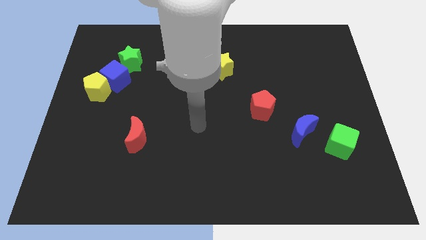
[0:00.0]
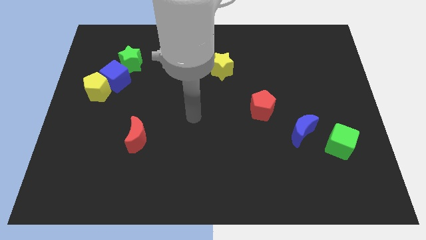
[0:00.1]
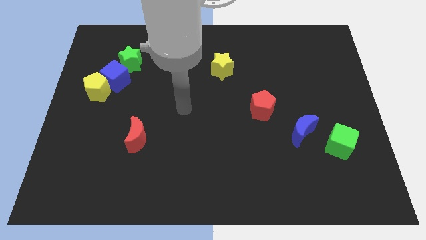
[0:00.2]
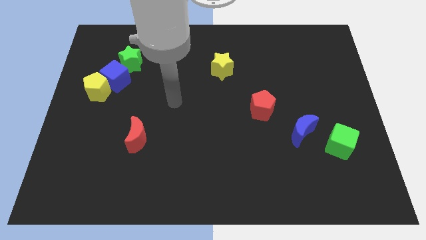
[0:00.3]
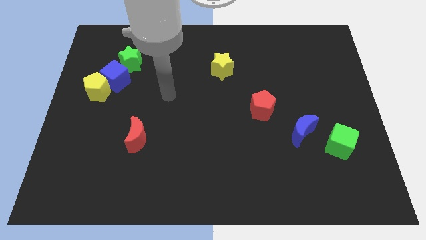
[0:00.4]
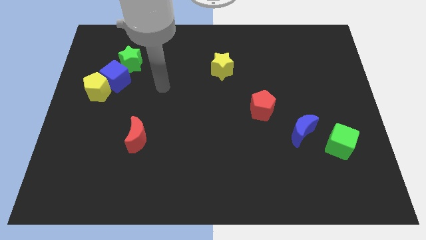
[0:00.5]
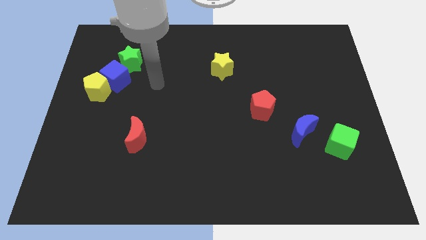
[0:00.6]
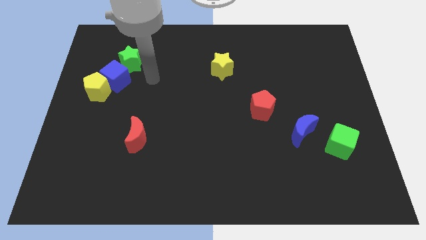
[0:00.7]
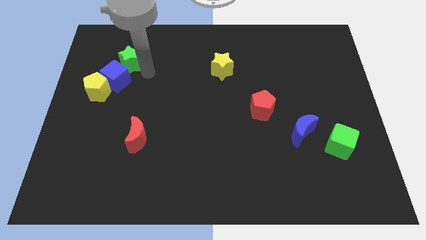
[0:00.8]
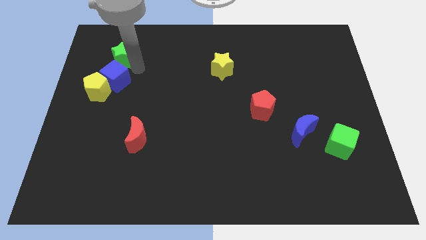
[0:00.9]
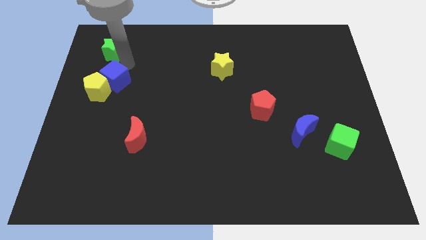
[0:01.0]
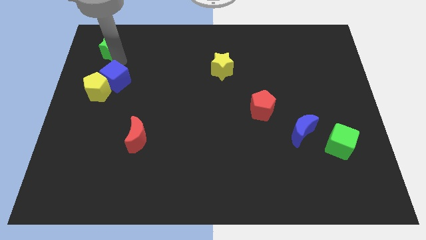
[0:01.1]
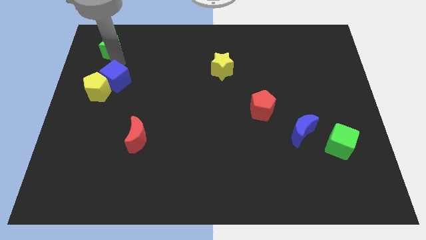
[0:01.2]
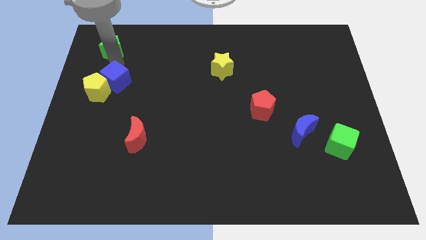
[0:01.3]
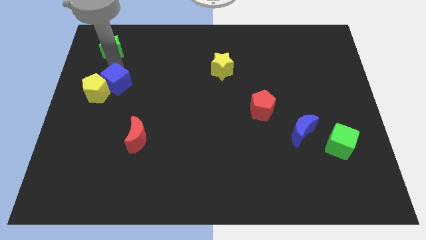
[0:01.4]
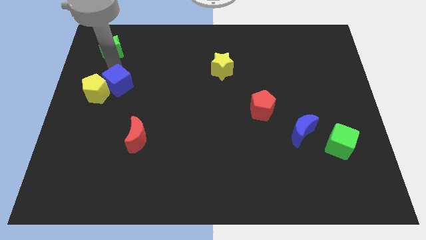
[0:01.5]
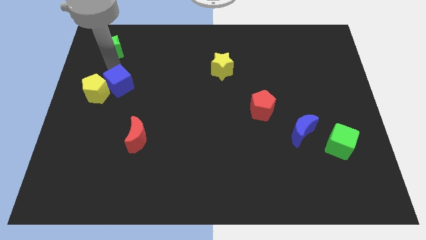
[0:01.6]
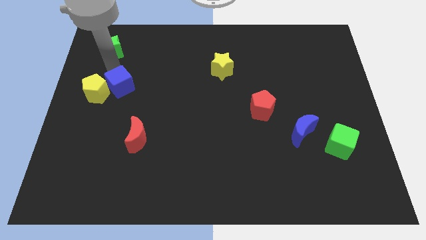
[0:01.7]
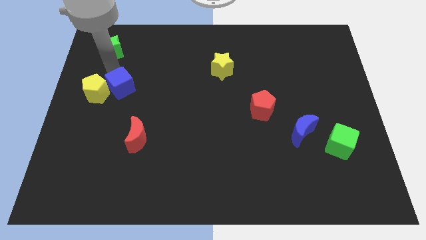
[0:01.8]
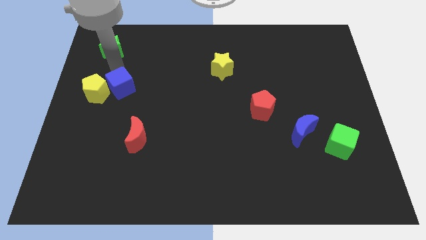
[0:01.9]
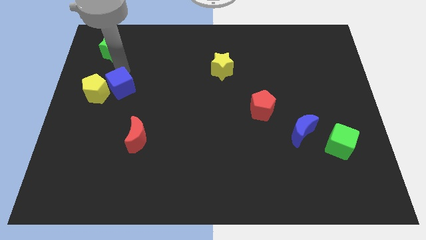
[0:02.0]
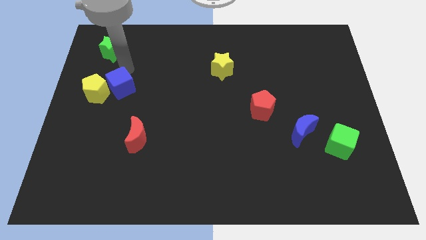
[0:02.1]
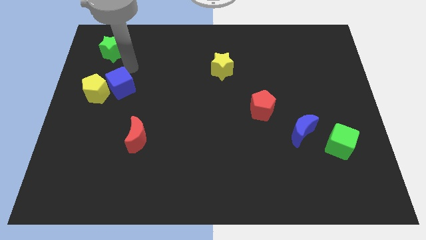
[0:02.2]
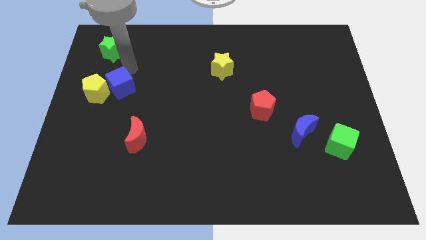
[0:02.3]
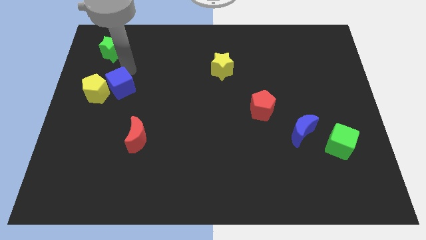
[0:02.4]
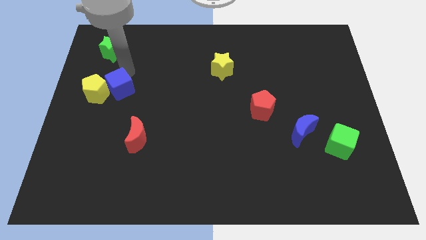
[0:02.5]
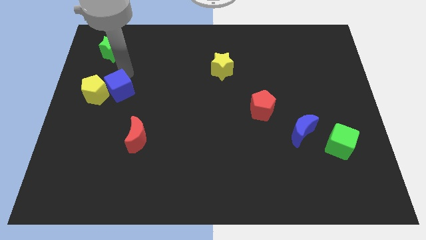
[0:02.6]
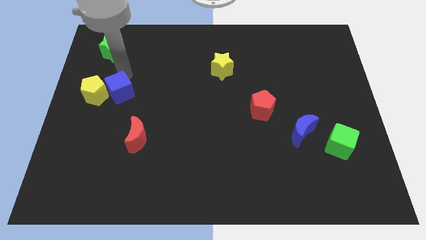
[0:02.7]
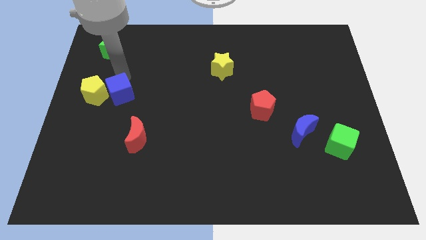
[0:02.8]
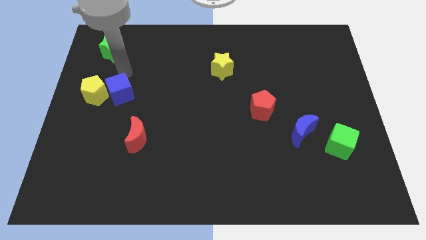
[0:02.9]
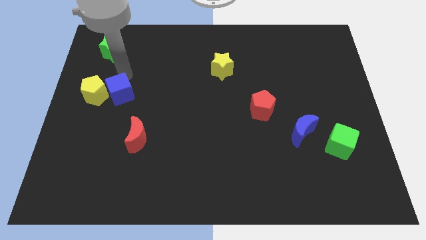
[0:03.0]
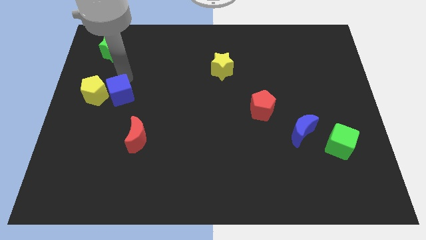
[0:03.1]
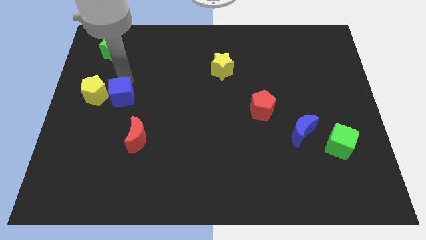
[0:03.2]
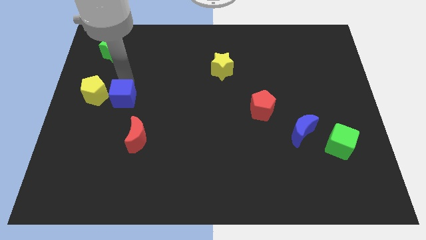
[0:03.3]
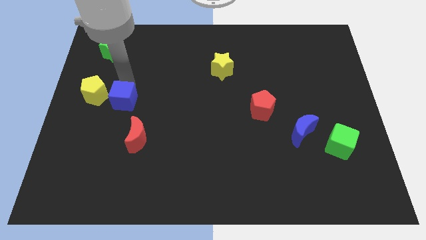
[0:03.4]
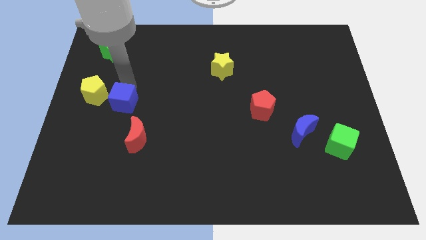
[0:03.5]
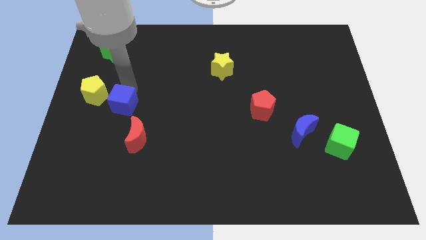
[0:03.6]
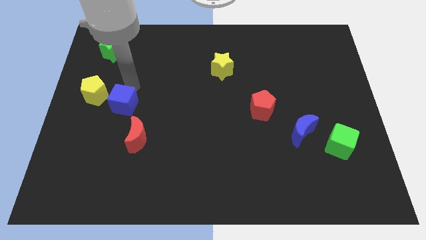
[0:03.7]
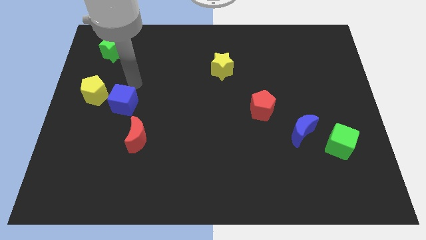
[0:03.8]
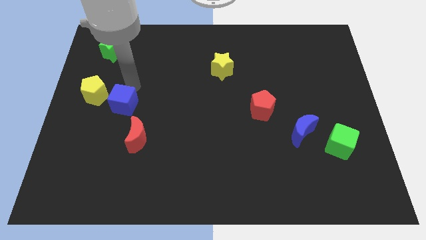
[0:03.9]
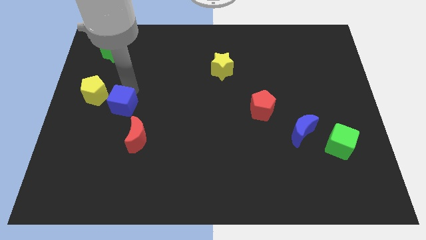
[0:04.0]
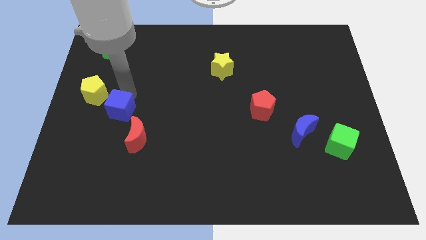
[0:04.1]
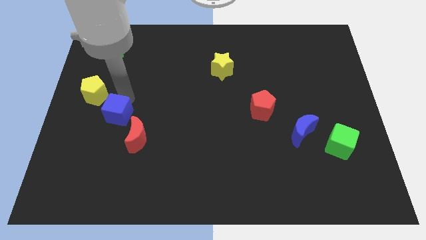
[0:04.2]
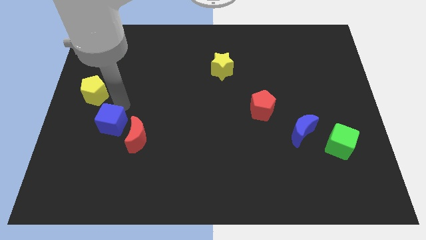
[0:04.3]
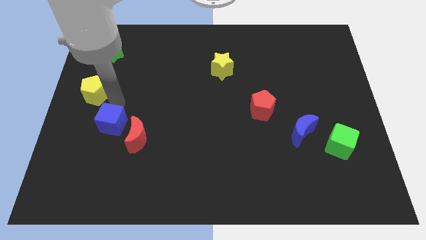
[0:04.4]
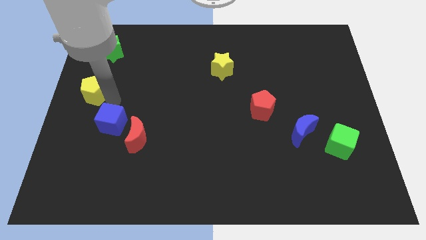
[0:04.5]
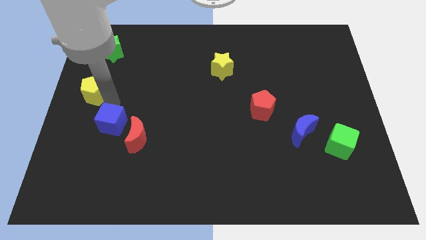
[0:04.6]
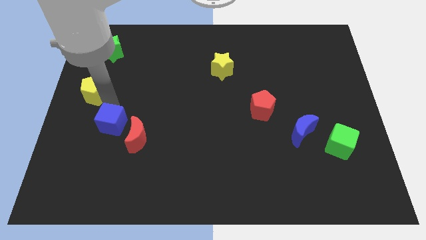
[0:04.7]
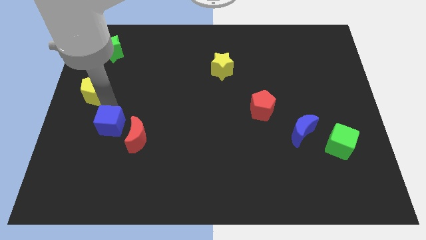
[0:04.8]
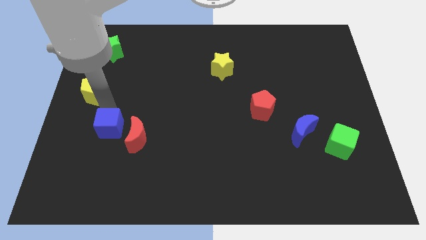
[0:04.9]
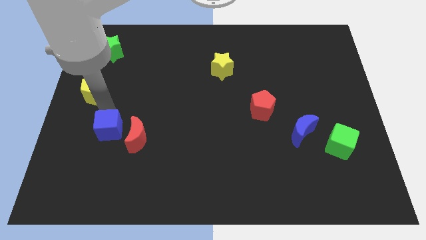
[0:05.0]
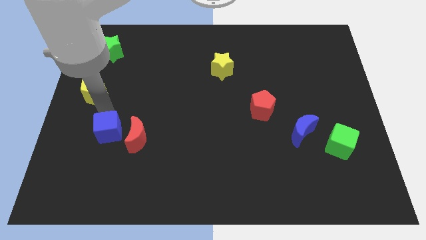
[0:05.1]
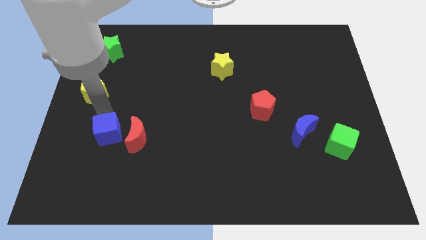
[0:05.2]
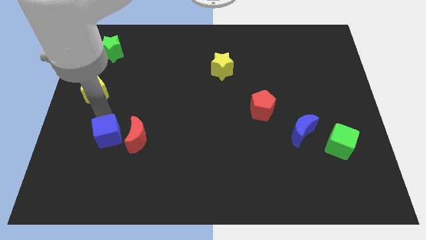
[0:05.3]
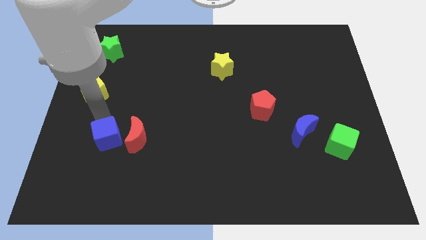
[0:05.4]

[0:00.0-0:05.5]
slide the blue cube to the bottom left of the red moon

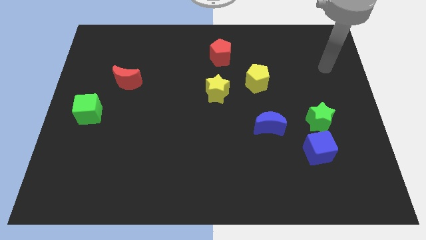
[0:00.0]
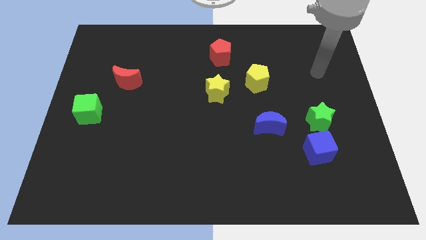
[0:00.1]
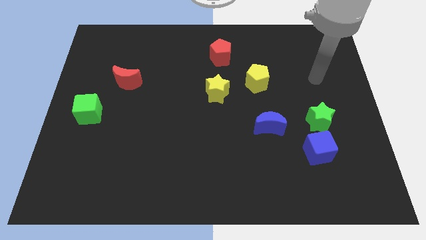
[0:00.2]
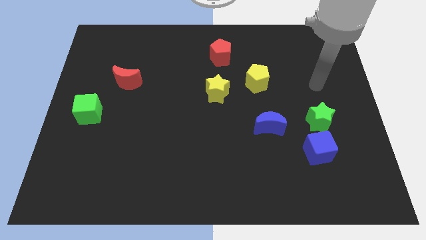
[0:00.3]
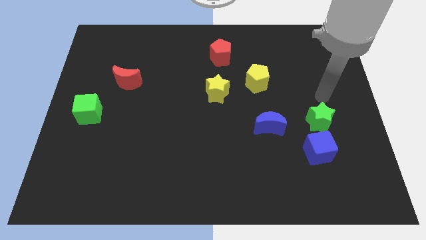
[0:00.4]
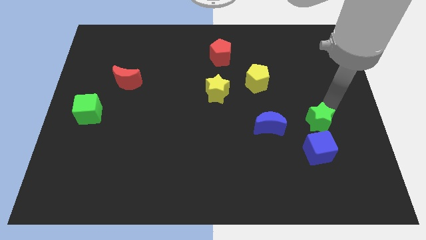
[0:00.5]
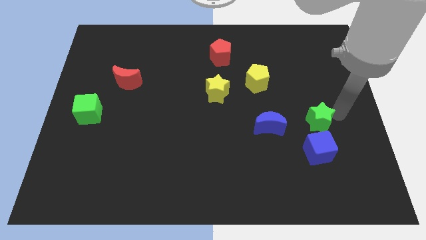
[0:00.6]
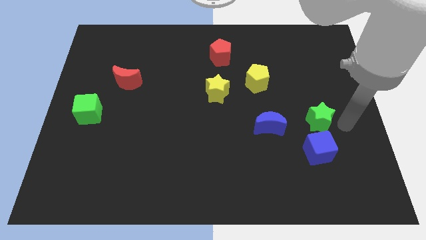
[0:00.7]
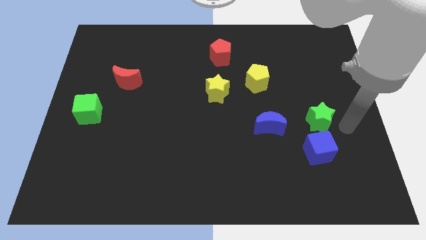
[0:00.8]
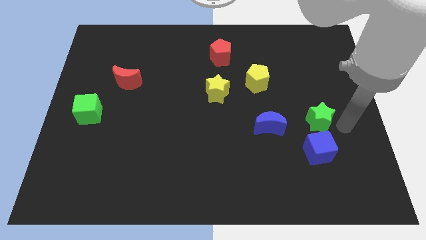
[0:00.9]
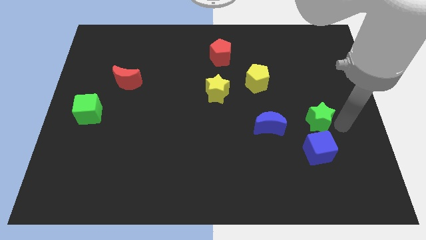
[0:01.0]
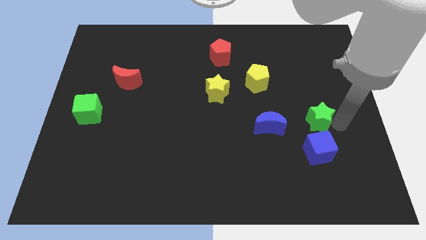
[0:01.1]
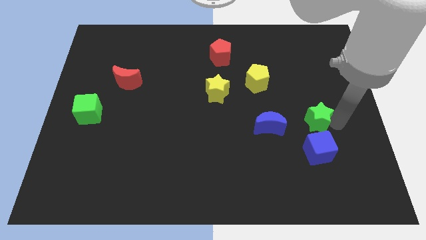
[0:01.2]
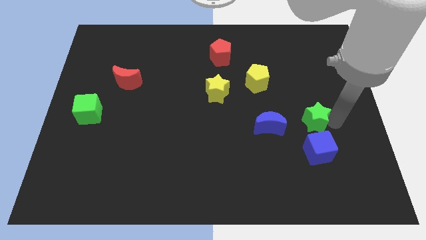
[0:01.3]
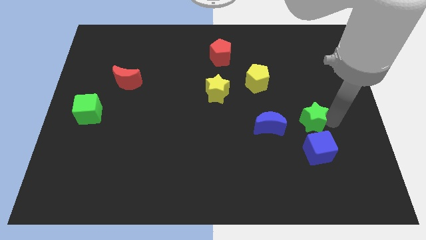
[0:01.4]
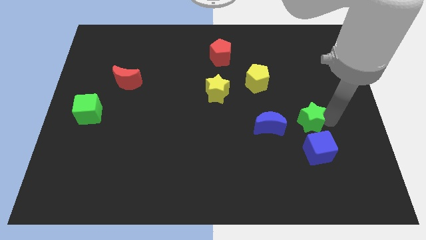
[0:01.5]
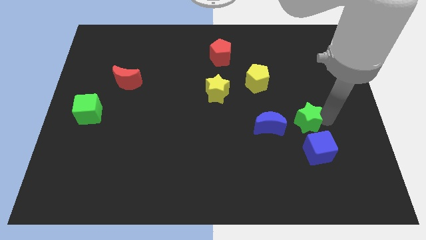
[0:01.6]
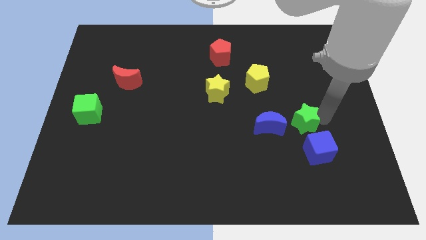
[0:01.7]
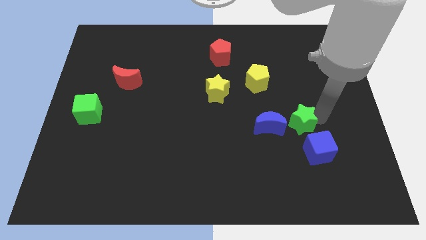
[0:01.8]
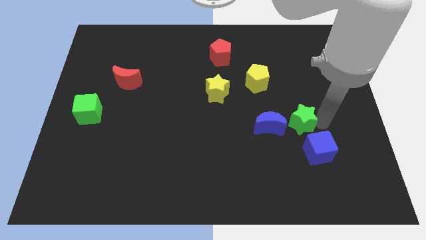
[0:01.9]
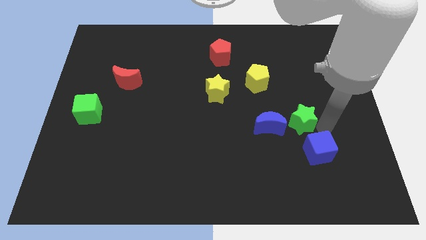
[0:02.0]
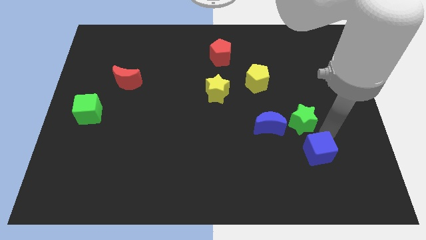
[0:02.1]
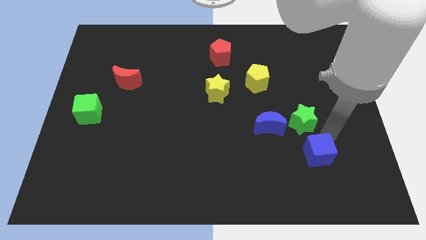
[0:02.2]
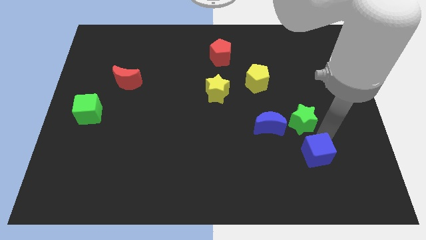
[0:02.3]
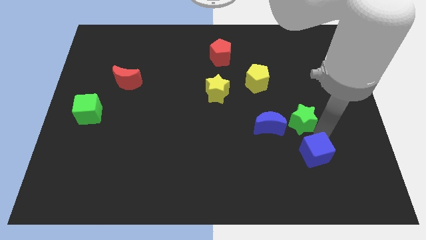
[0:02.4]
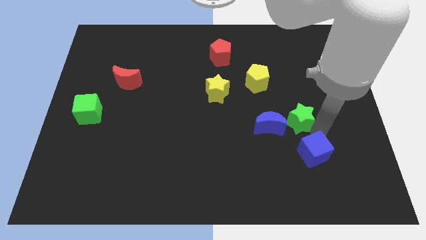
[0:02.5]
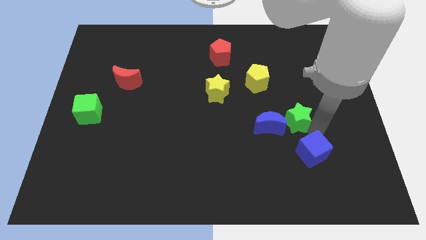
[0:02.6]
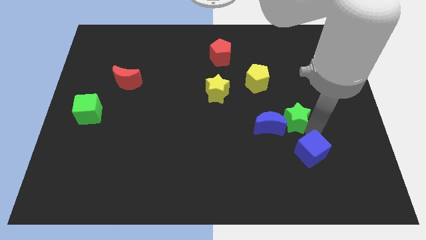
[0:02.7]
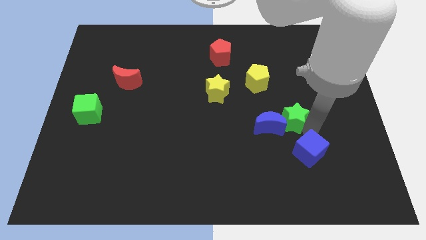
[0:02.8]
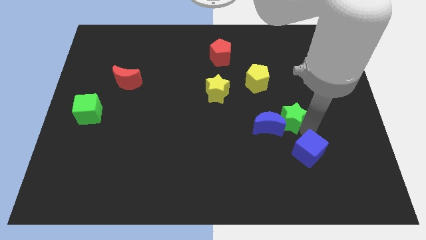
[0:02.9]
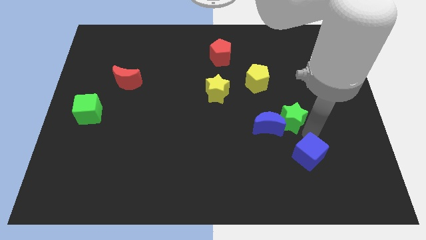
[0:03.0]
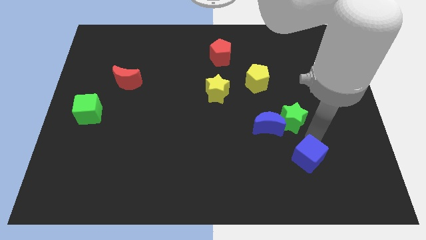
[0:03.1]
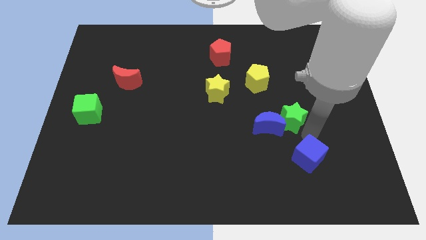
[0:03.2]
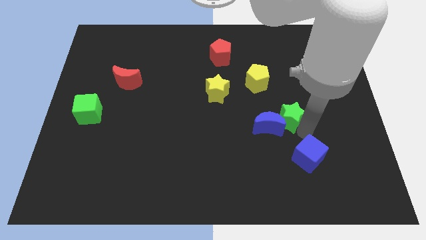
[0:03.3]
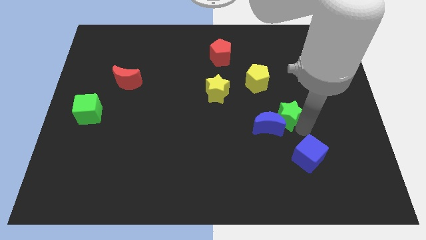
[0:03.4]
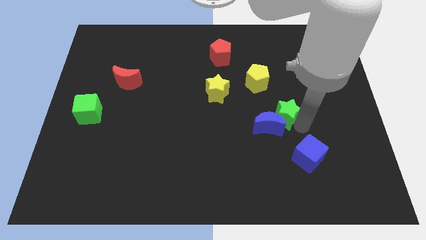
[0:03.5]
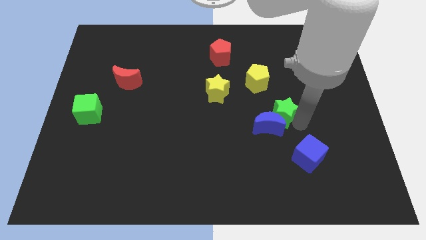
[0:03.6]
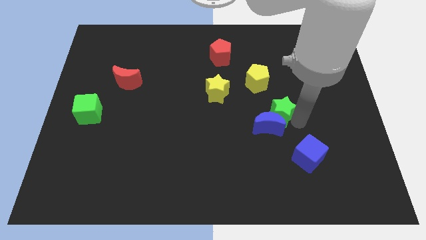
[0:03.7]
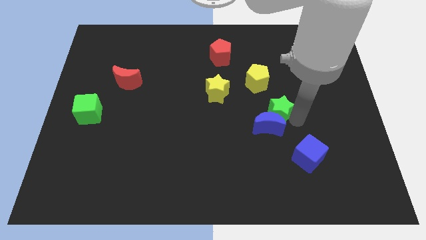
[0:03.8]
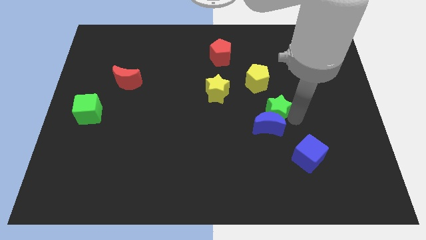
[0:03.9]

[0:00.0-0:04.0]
put the green star to the top left of the blue moon
